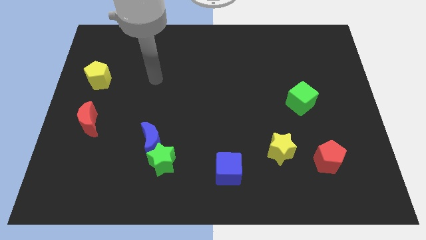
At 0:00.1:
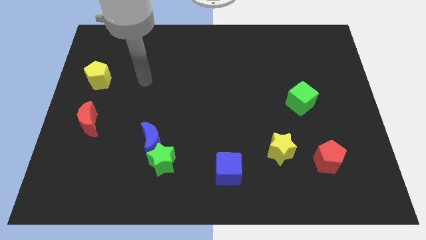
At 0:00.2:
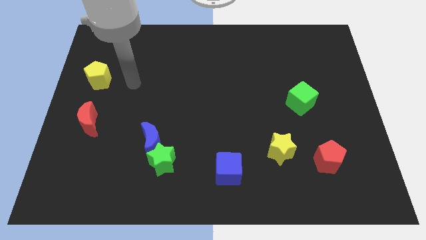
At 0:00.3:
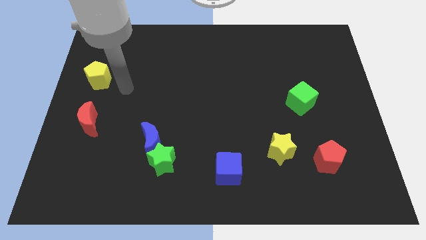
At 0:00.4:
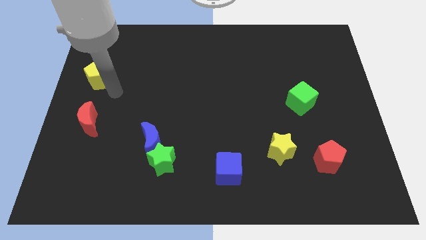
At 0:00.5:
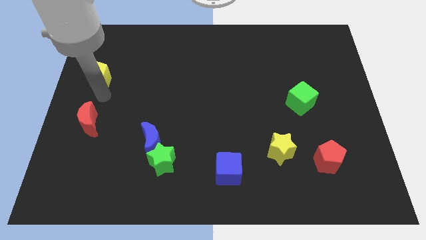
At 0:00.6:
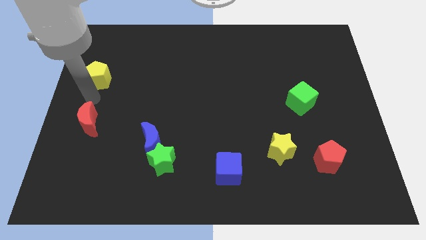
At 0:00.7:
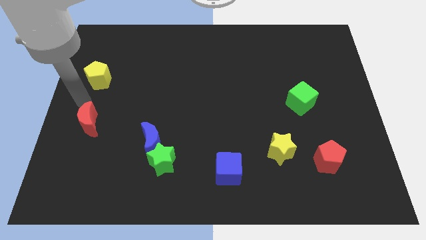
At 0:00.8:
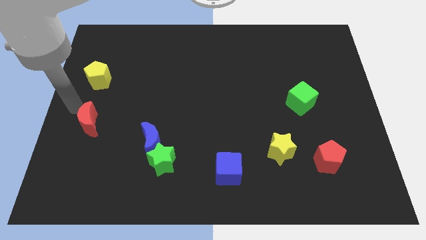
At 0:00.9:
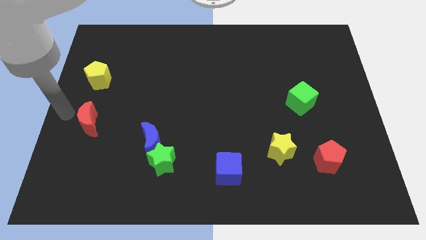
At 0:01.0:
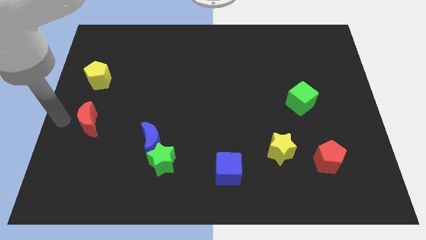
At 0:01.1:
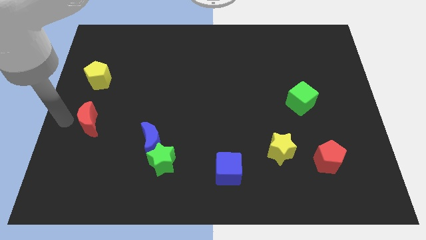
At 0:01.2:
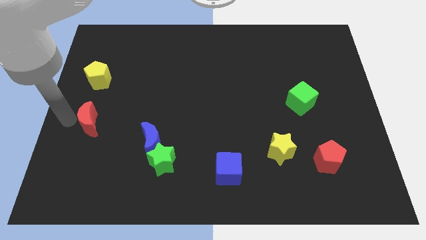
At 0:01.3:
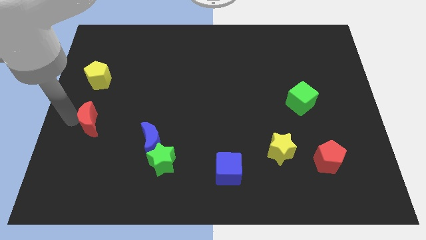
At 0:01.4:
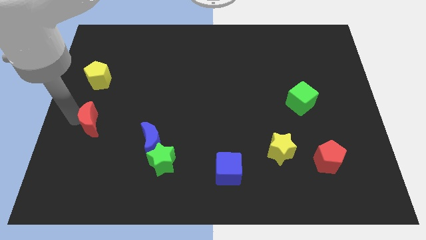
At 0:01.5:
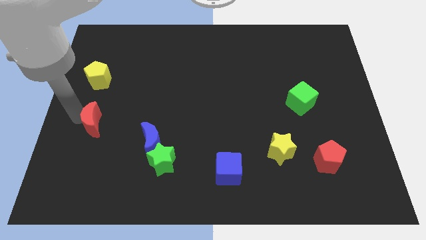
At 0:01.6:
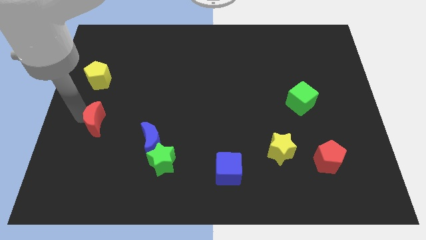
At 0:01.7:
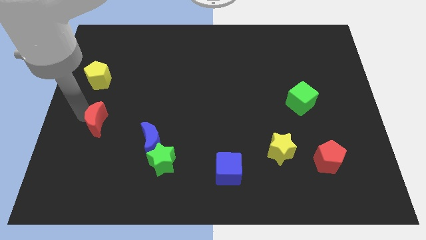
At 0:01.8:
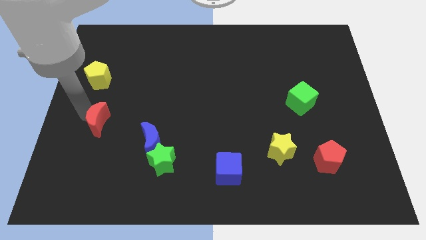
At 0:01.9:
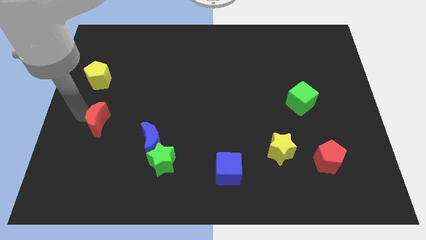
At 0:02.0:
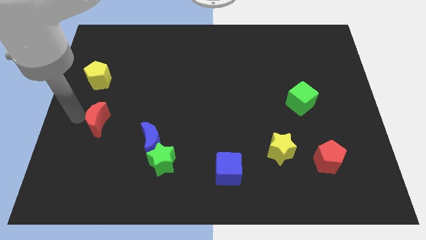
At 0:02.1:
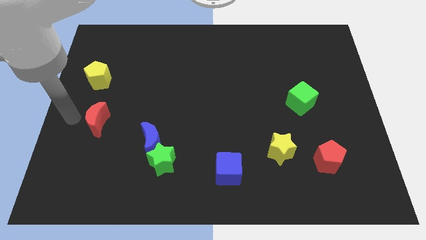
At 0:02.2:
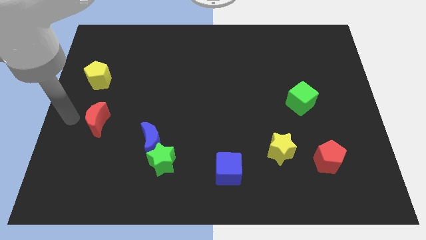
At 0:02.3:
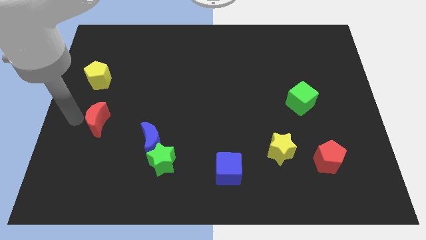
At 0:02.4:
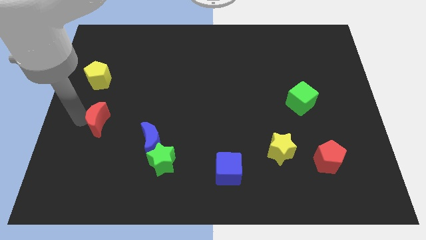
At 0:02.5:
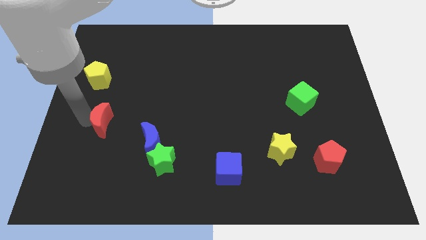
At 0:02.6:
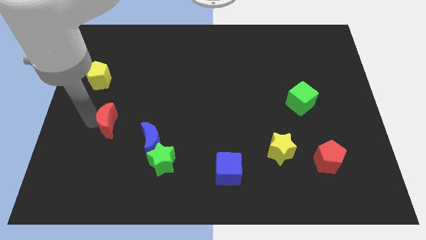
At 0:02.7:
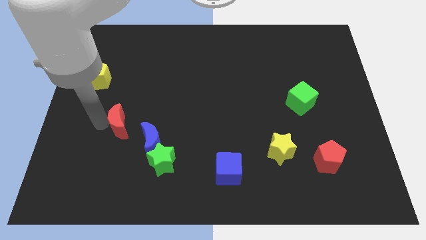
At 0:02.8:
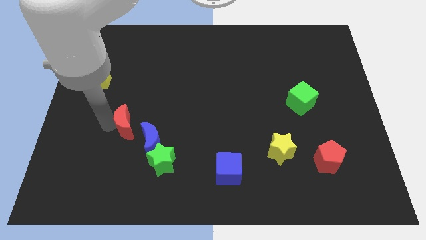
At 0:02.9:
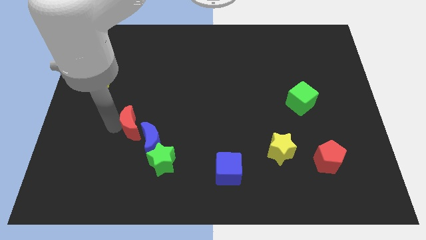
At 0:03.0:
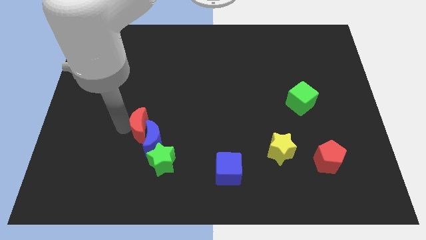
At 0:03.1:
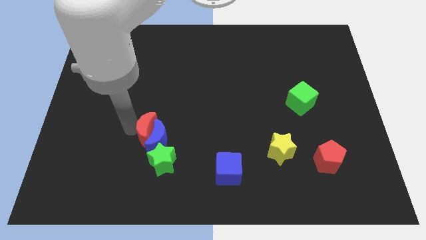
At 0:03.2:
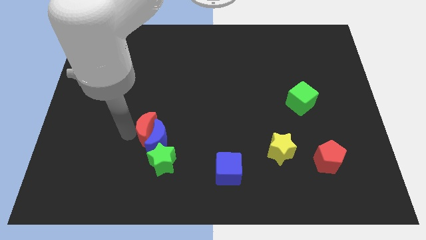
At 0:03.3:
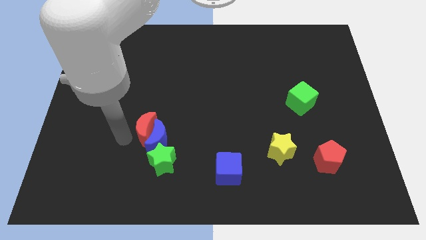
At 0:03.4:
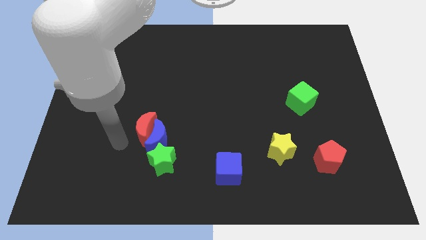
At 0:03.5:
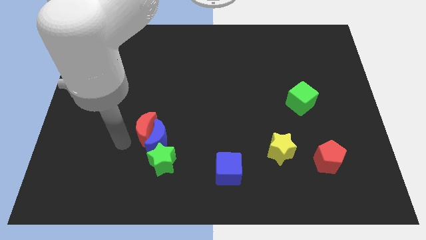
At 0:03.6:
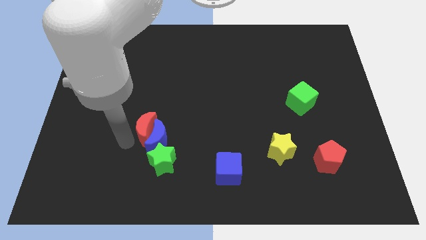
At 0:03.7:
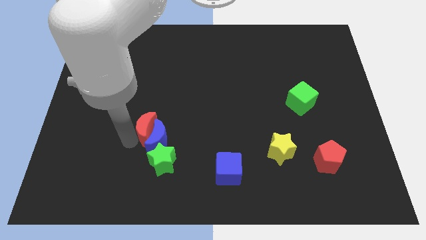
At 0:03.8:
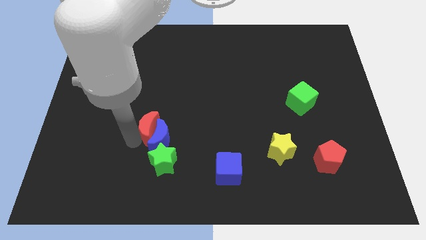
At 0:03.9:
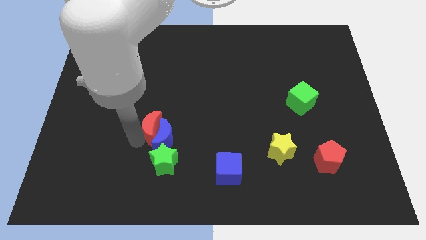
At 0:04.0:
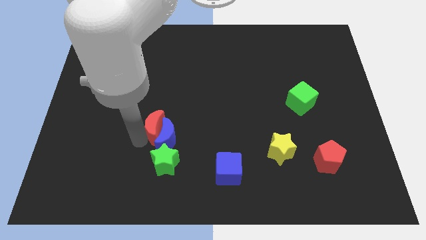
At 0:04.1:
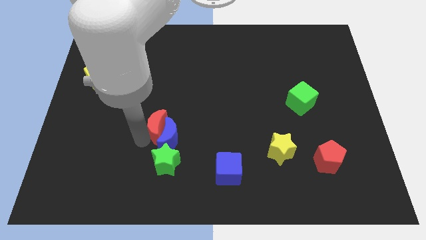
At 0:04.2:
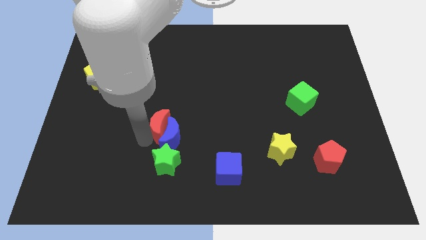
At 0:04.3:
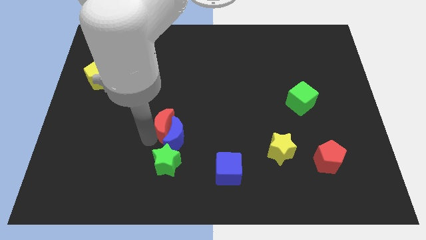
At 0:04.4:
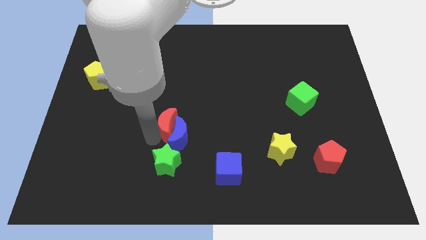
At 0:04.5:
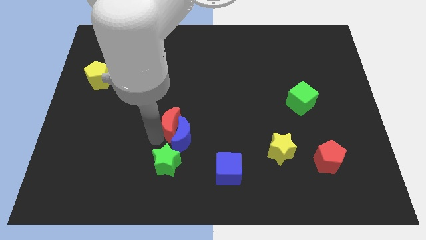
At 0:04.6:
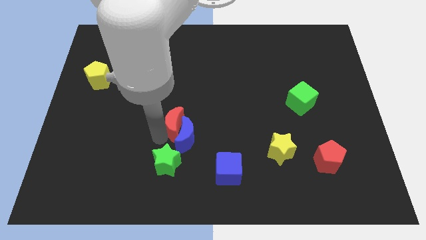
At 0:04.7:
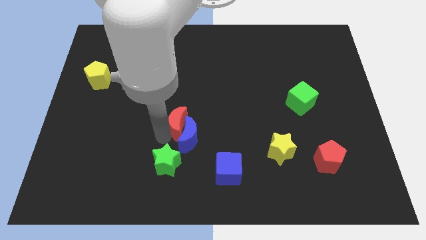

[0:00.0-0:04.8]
slide the red moon right

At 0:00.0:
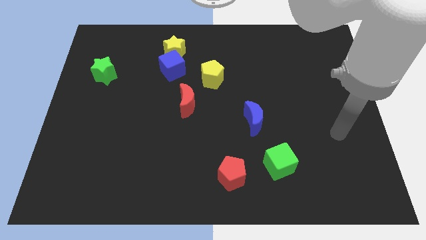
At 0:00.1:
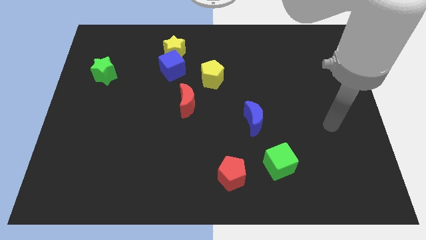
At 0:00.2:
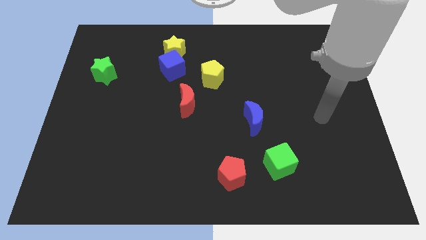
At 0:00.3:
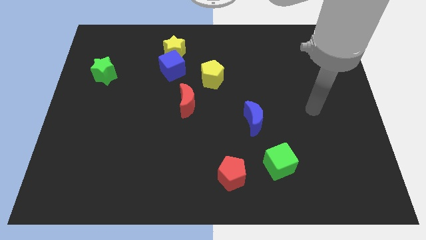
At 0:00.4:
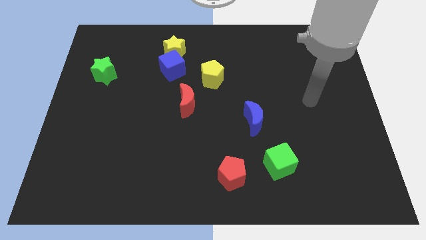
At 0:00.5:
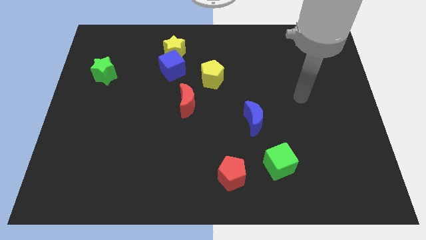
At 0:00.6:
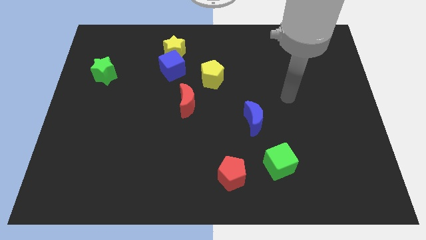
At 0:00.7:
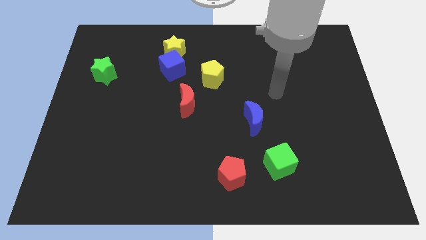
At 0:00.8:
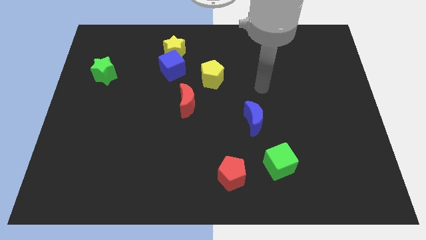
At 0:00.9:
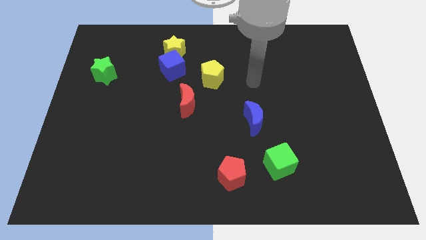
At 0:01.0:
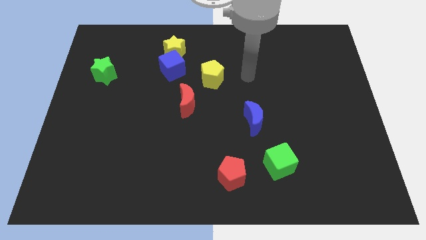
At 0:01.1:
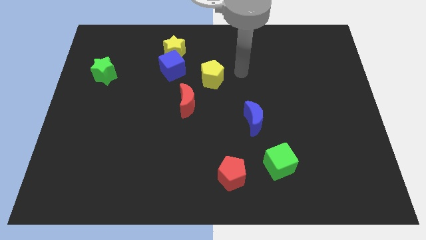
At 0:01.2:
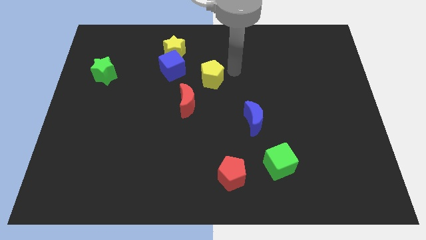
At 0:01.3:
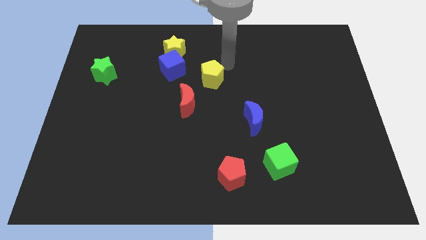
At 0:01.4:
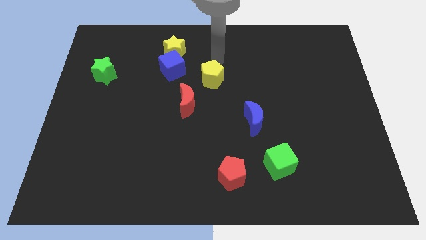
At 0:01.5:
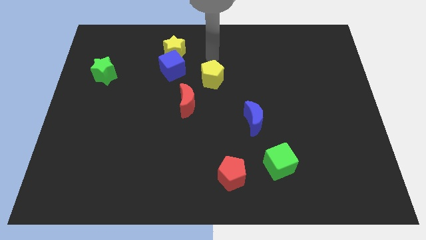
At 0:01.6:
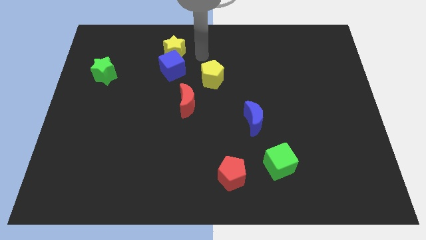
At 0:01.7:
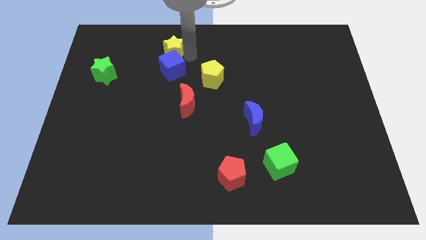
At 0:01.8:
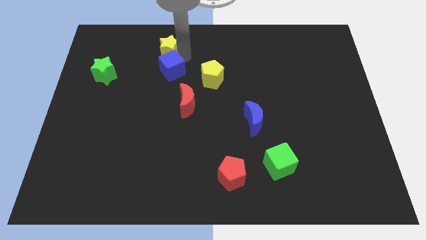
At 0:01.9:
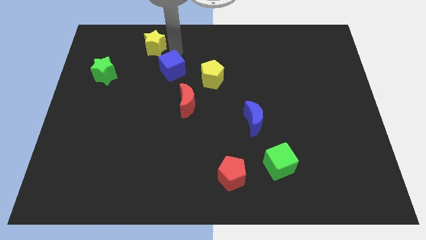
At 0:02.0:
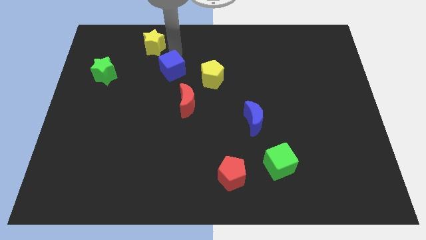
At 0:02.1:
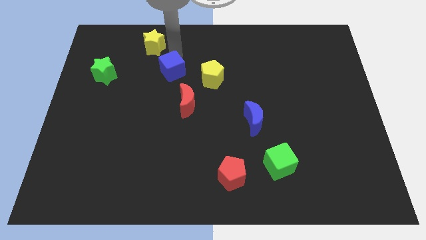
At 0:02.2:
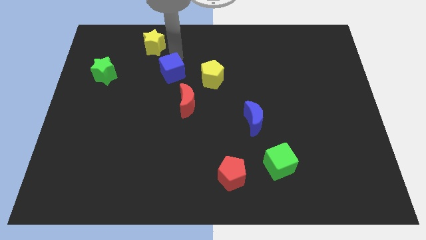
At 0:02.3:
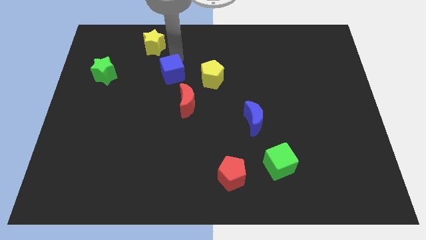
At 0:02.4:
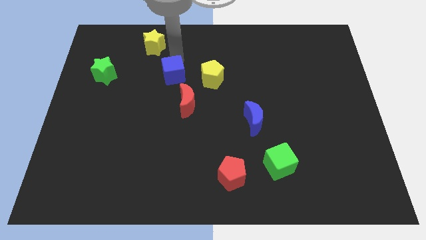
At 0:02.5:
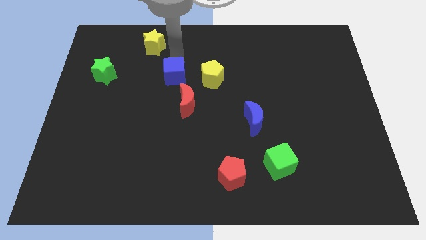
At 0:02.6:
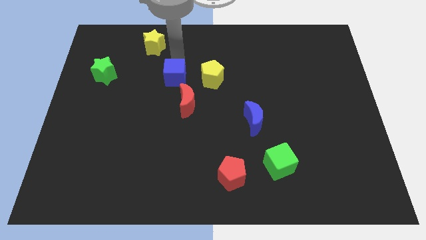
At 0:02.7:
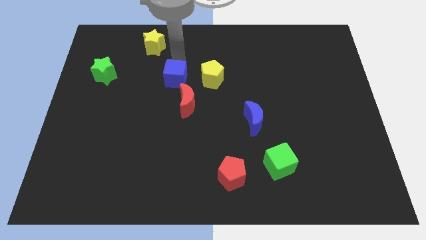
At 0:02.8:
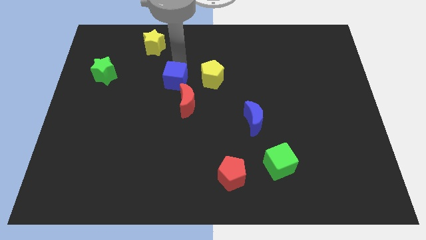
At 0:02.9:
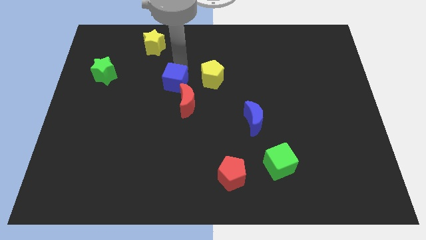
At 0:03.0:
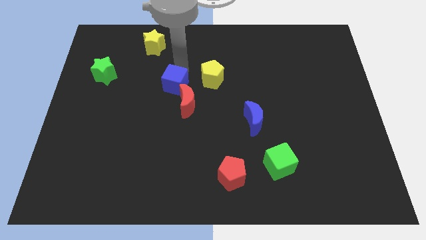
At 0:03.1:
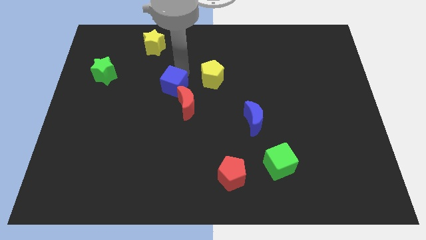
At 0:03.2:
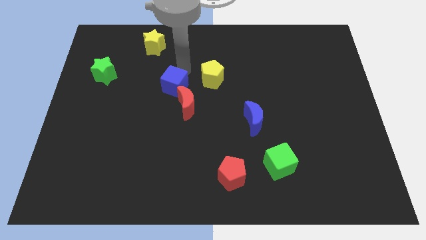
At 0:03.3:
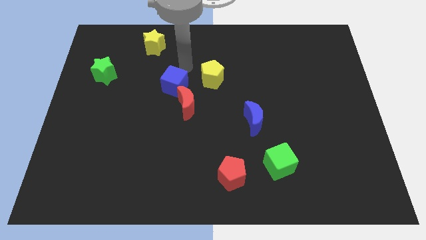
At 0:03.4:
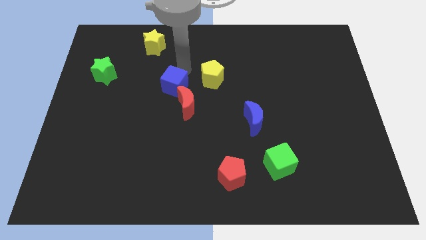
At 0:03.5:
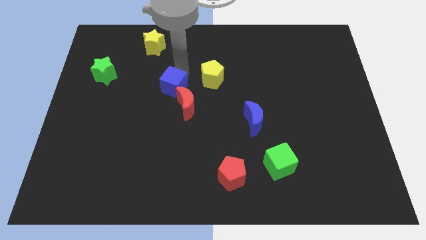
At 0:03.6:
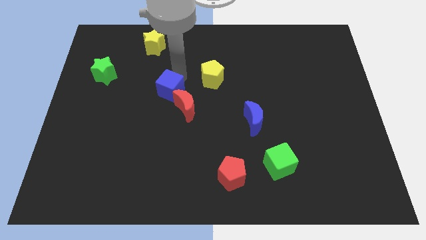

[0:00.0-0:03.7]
slide the blue cube a little bit downwards
